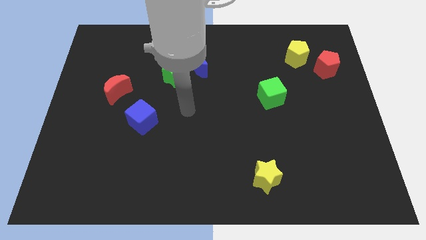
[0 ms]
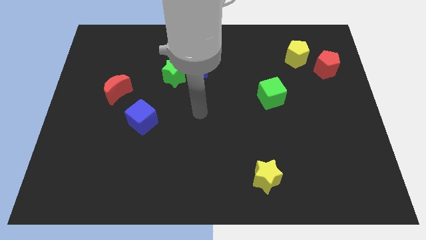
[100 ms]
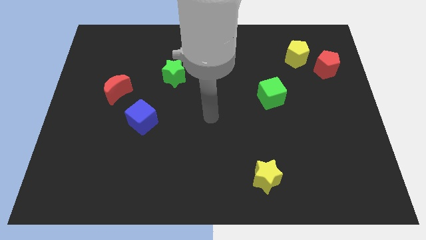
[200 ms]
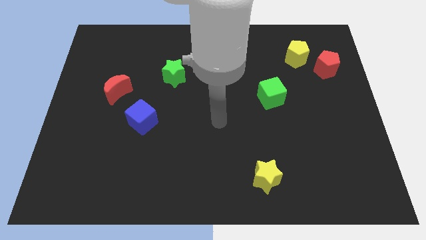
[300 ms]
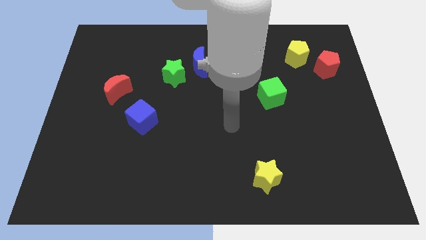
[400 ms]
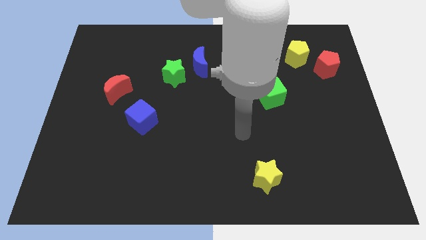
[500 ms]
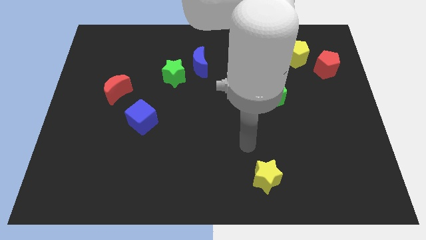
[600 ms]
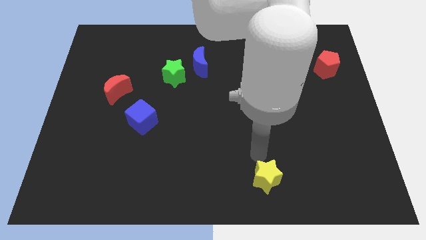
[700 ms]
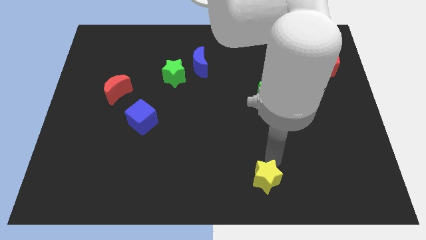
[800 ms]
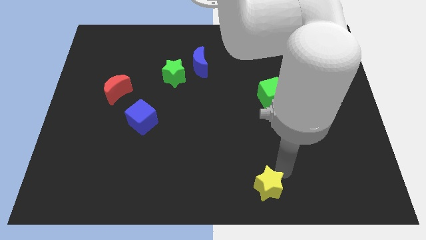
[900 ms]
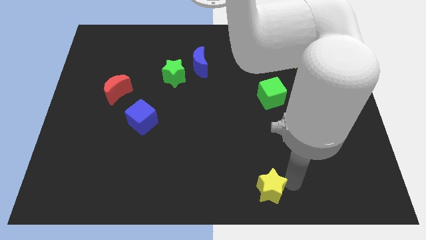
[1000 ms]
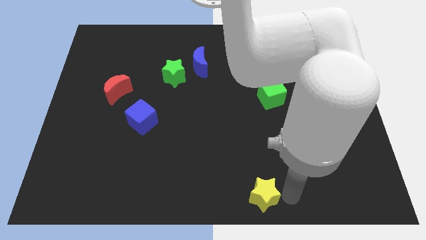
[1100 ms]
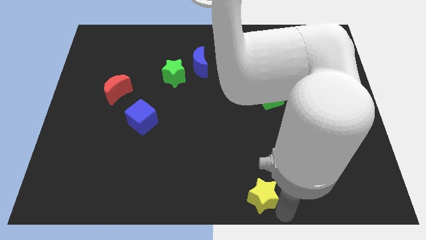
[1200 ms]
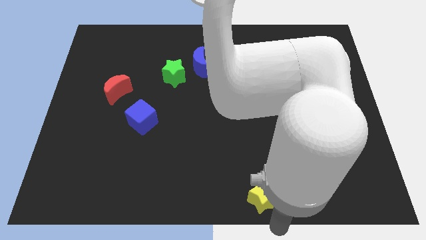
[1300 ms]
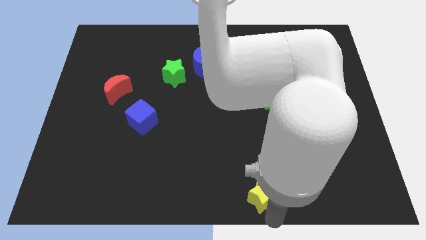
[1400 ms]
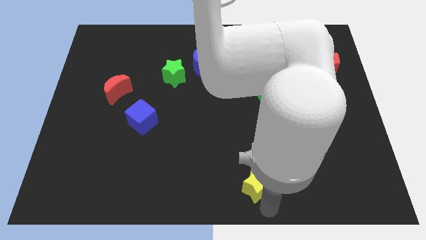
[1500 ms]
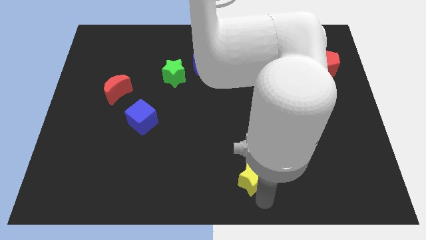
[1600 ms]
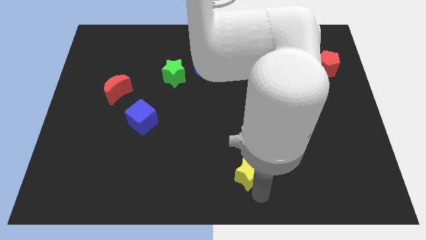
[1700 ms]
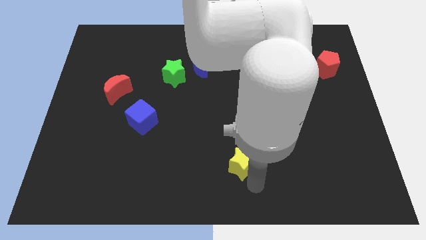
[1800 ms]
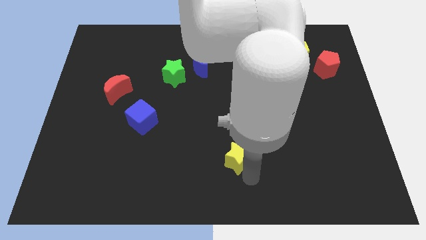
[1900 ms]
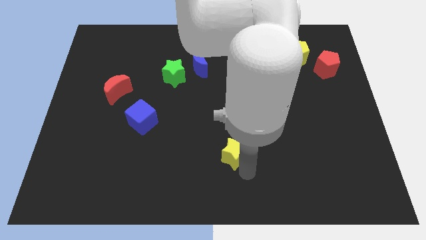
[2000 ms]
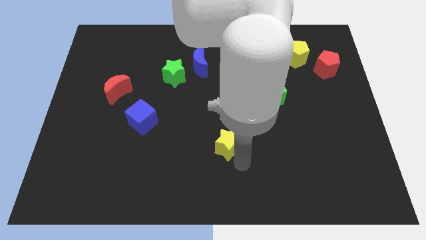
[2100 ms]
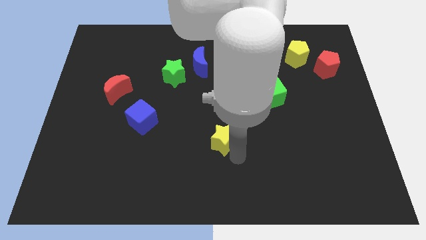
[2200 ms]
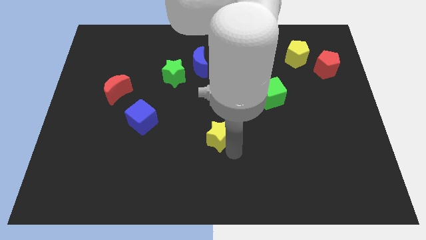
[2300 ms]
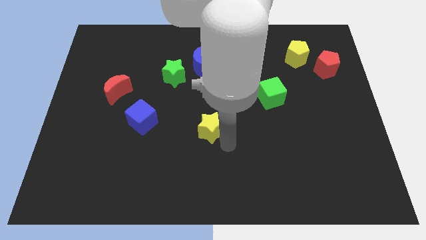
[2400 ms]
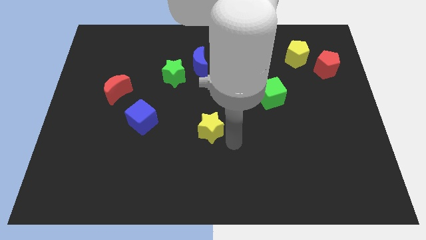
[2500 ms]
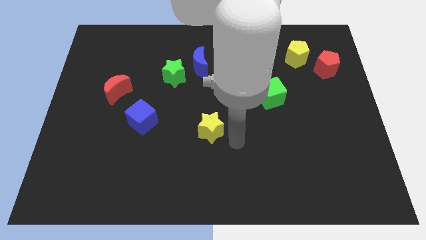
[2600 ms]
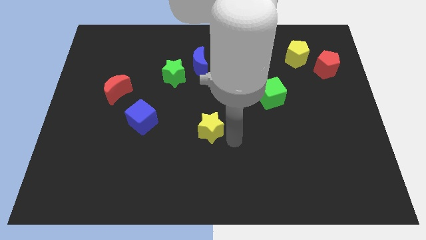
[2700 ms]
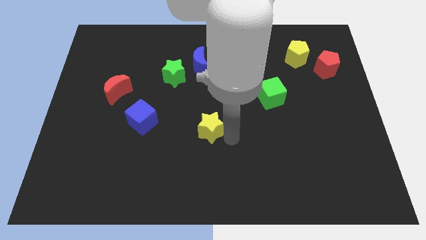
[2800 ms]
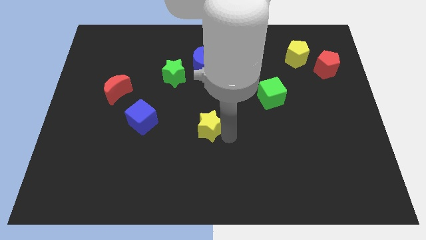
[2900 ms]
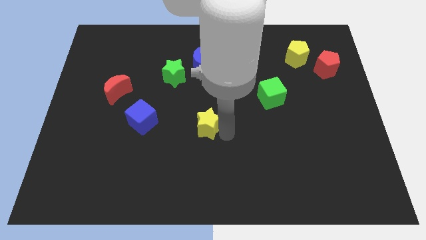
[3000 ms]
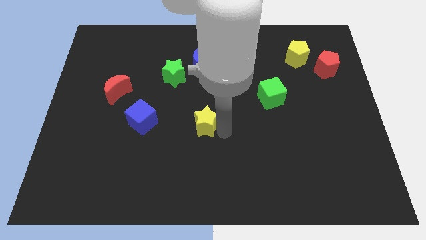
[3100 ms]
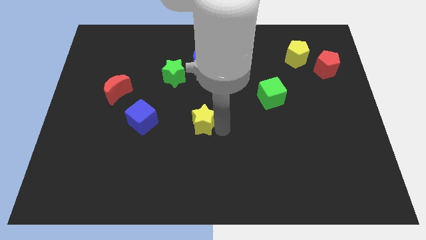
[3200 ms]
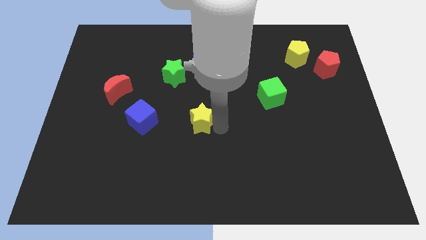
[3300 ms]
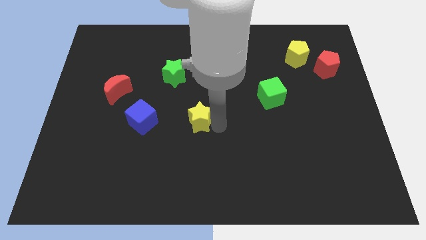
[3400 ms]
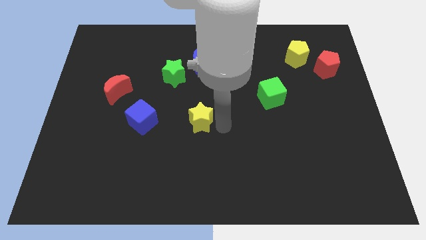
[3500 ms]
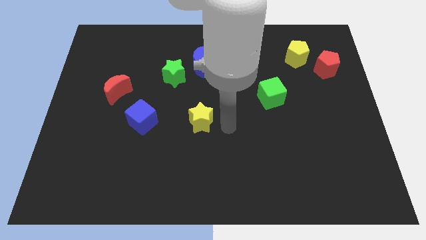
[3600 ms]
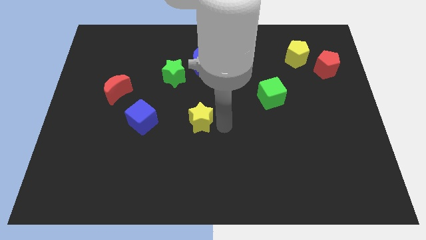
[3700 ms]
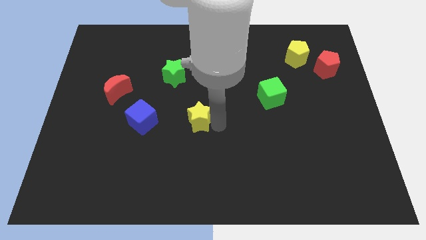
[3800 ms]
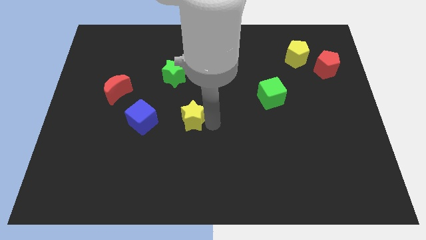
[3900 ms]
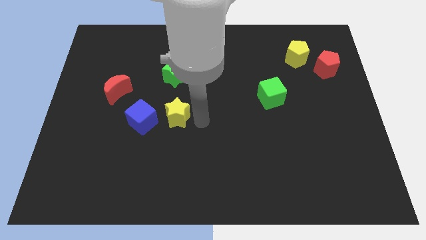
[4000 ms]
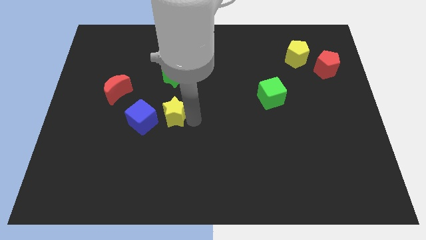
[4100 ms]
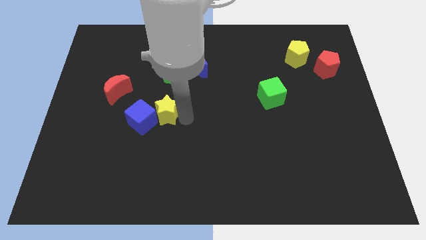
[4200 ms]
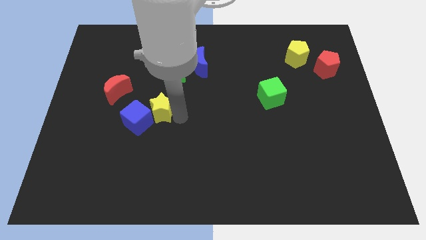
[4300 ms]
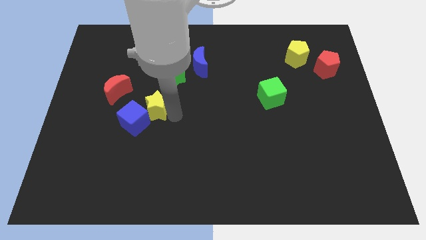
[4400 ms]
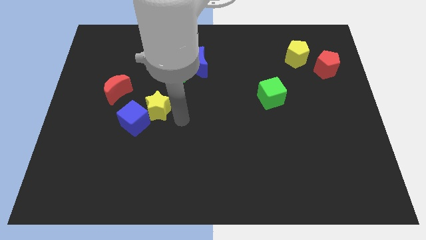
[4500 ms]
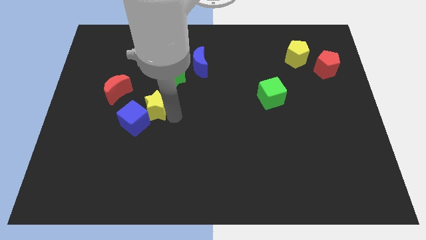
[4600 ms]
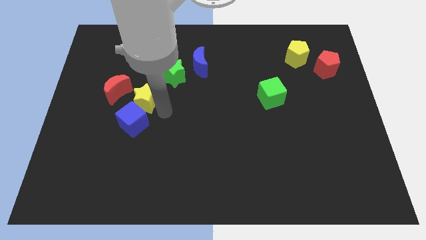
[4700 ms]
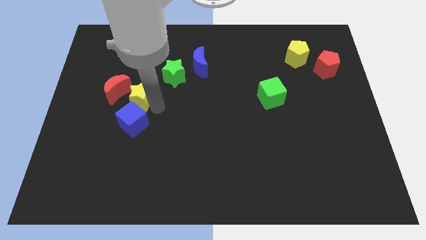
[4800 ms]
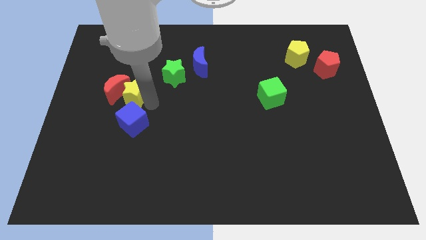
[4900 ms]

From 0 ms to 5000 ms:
push the yellow star to the red moon

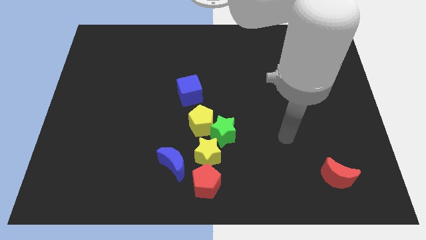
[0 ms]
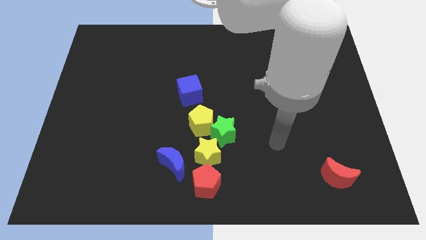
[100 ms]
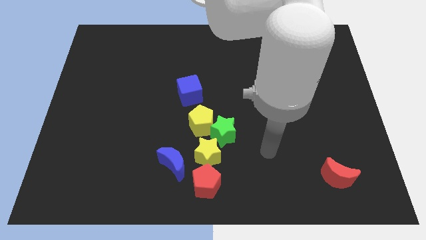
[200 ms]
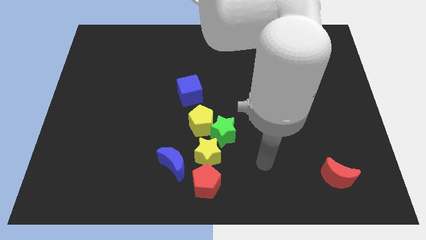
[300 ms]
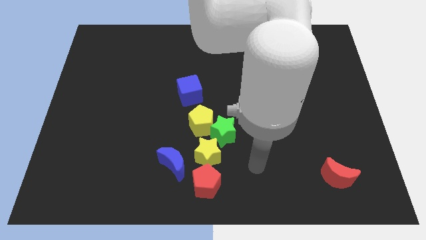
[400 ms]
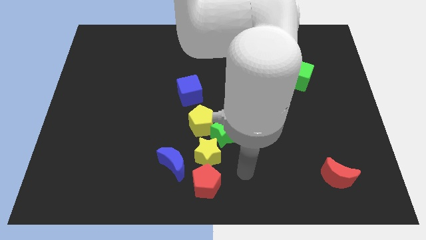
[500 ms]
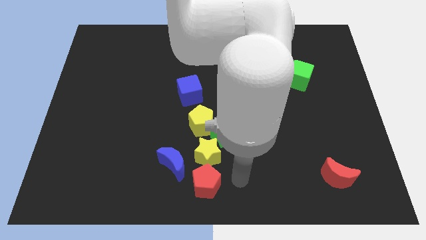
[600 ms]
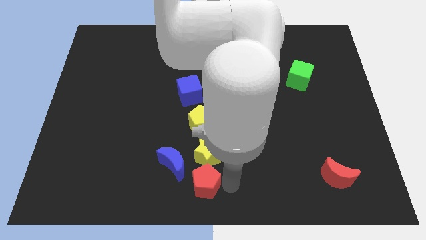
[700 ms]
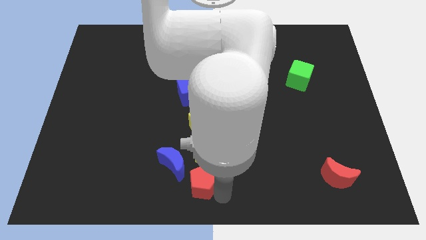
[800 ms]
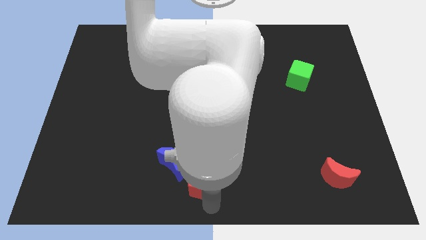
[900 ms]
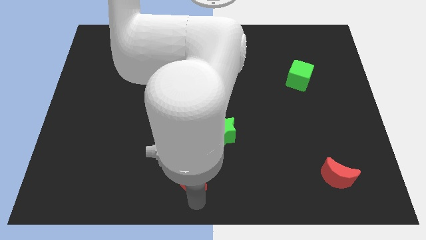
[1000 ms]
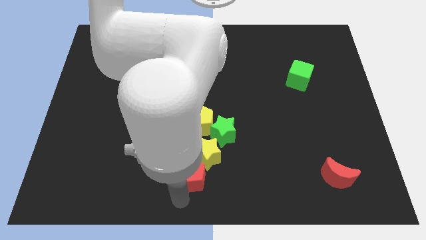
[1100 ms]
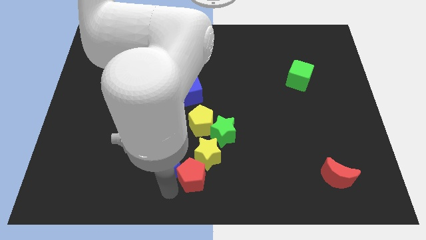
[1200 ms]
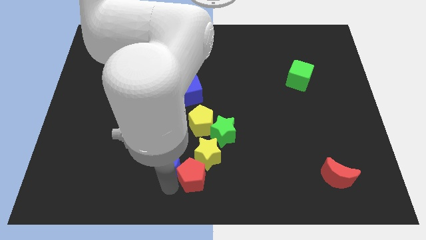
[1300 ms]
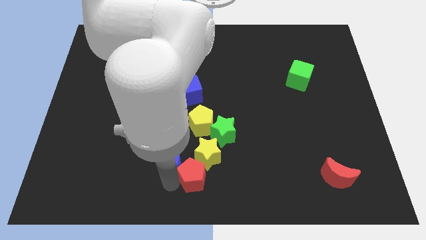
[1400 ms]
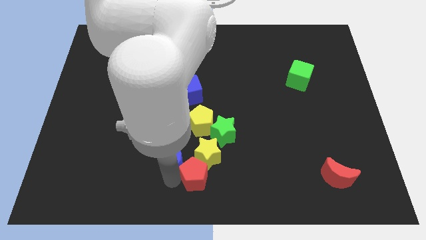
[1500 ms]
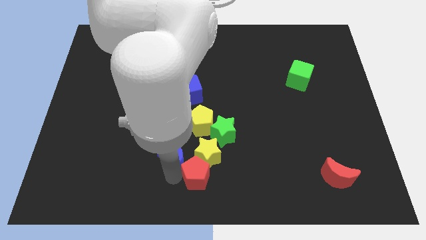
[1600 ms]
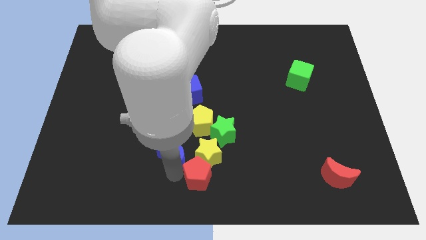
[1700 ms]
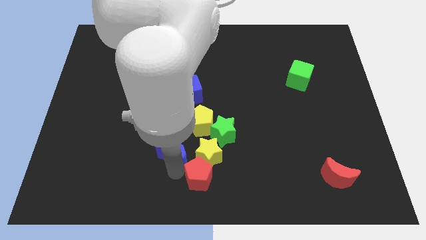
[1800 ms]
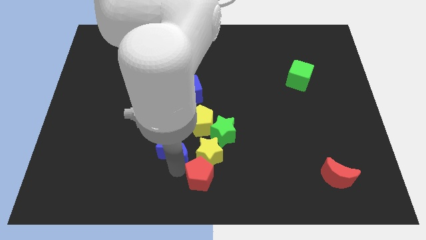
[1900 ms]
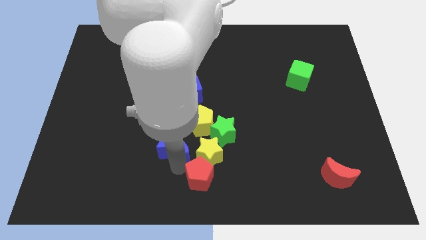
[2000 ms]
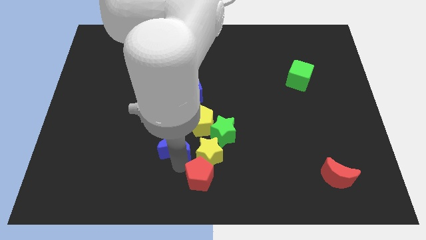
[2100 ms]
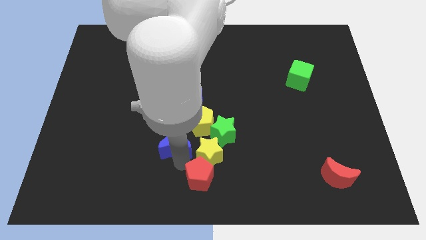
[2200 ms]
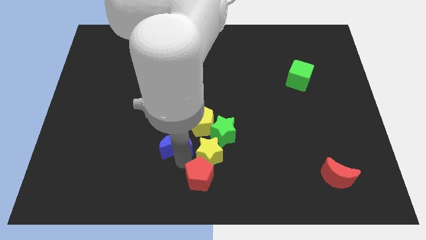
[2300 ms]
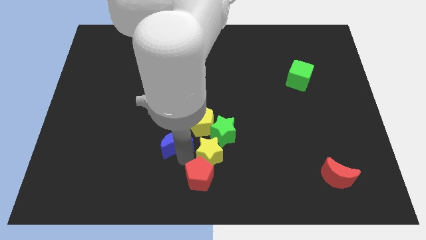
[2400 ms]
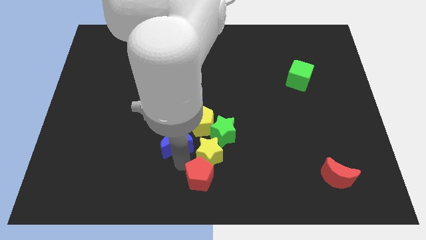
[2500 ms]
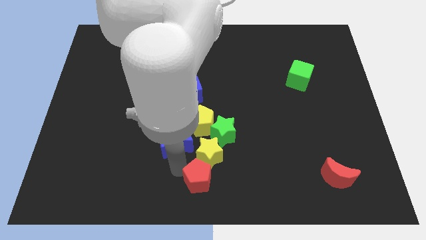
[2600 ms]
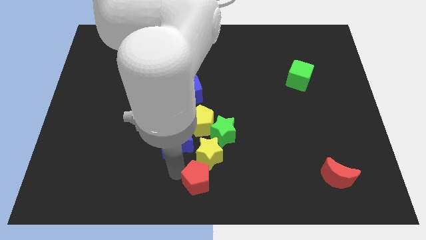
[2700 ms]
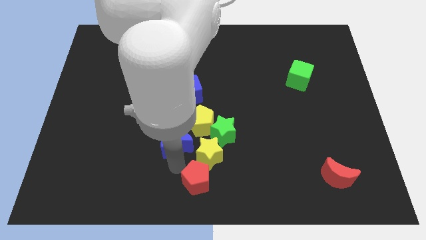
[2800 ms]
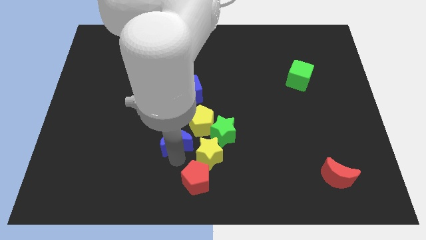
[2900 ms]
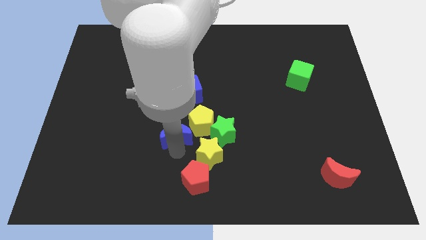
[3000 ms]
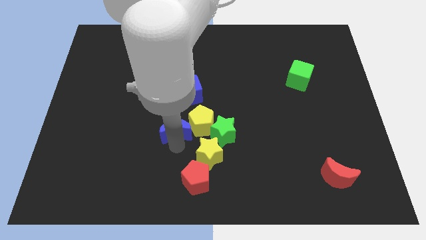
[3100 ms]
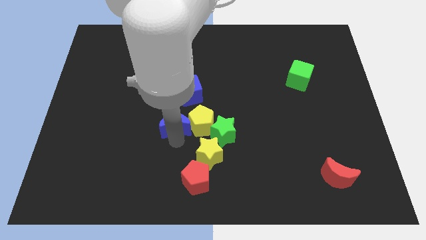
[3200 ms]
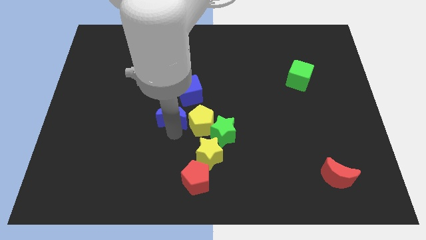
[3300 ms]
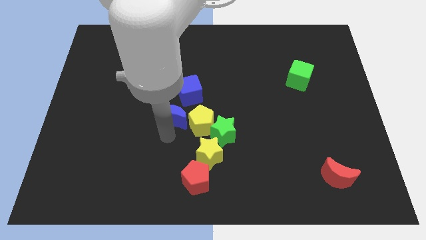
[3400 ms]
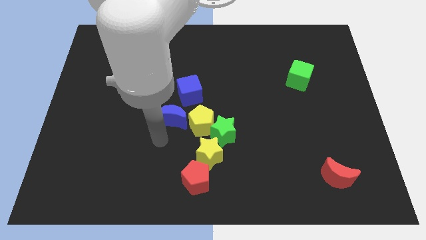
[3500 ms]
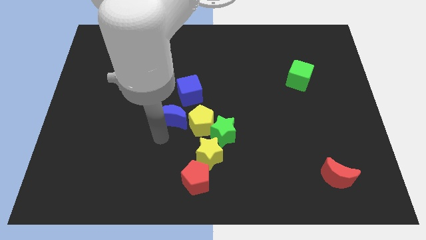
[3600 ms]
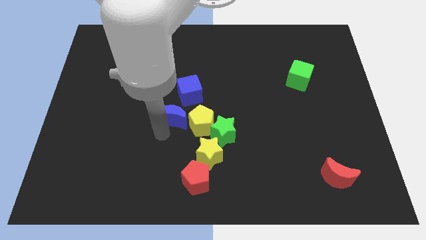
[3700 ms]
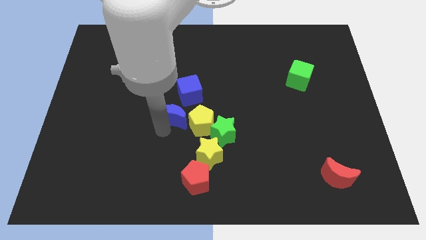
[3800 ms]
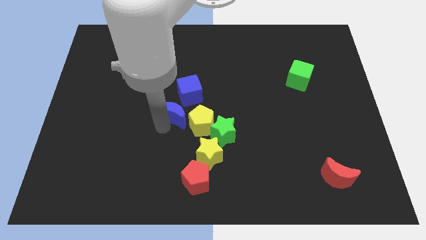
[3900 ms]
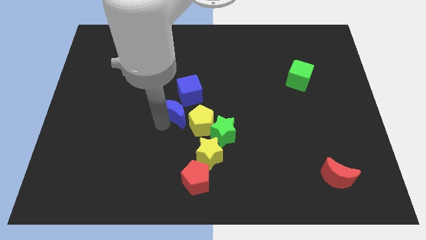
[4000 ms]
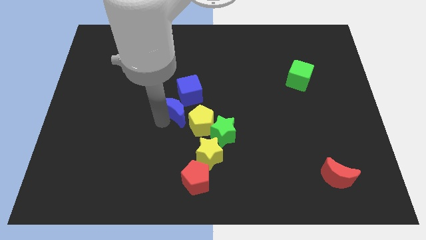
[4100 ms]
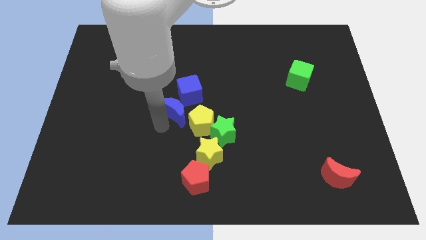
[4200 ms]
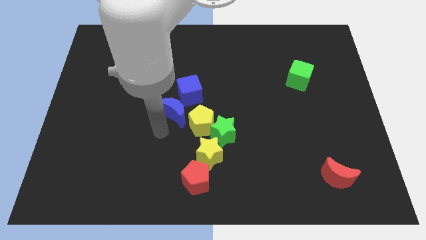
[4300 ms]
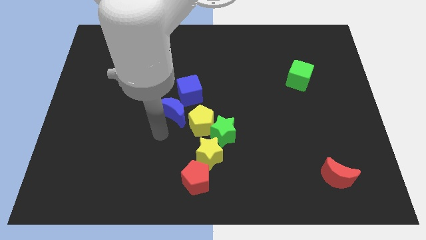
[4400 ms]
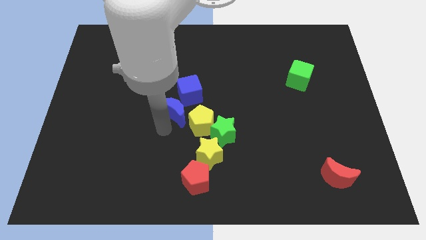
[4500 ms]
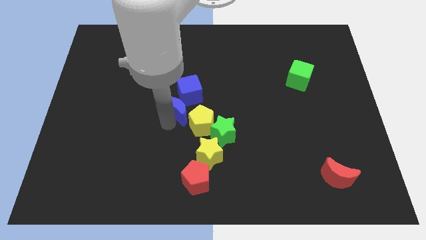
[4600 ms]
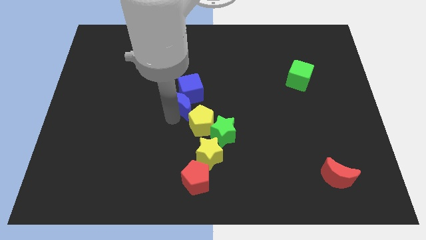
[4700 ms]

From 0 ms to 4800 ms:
put the blue moon next to the blue cube
